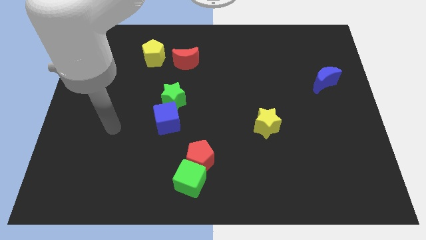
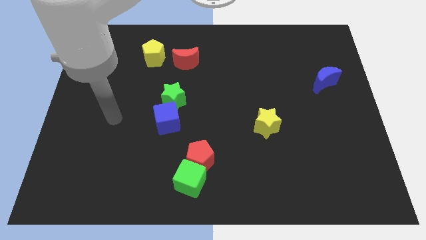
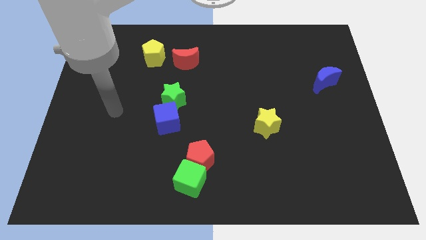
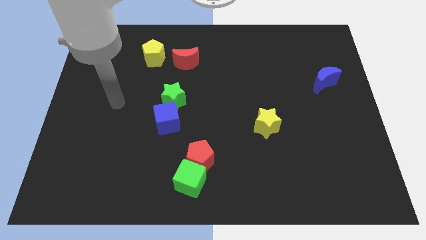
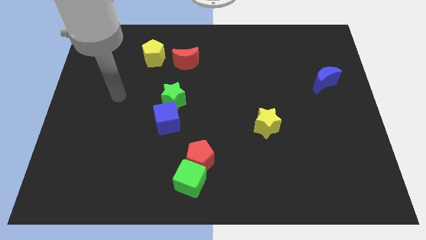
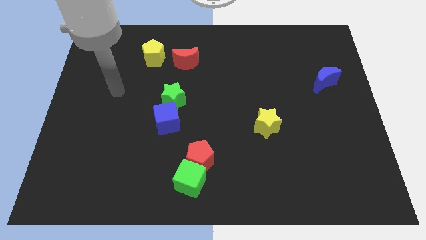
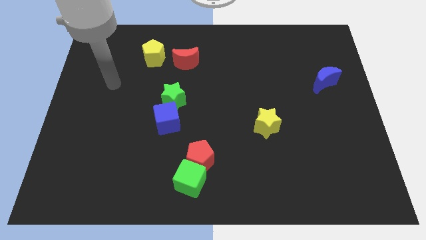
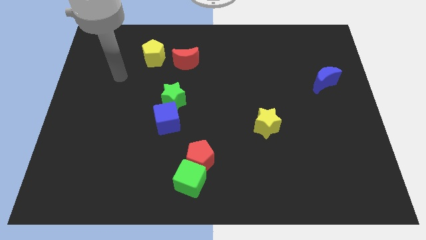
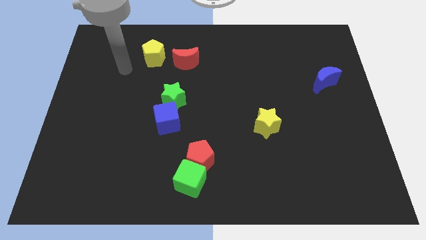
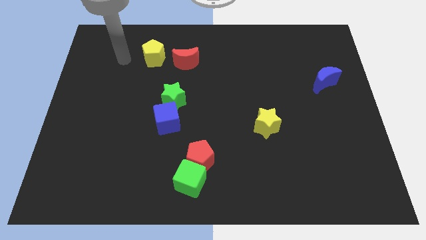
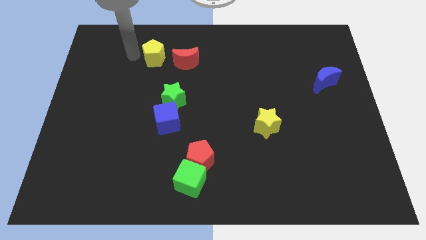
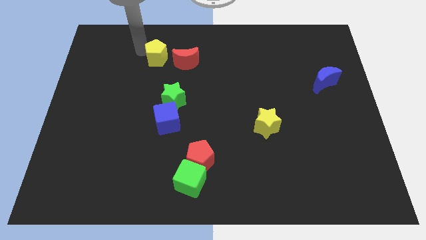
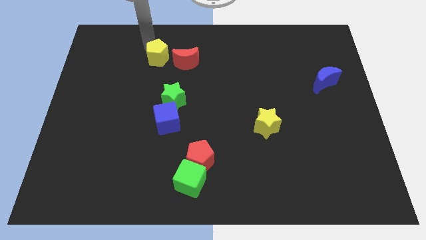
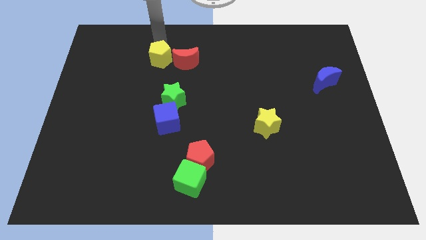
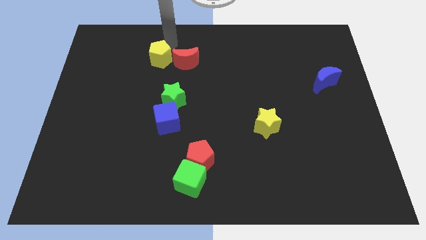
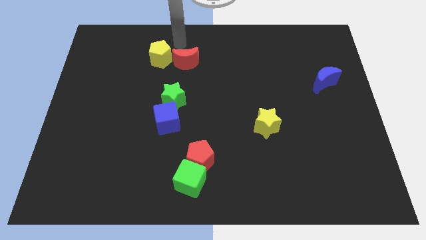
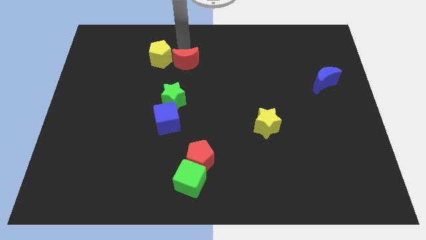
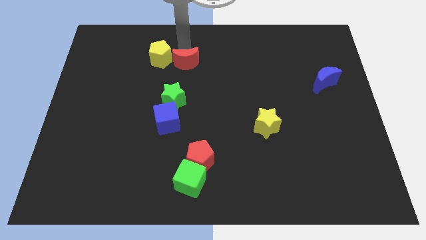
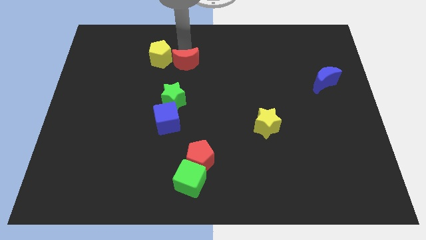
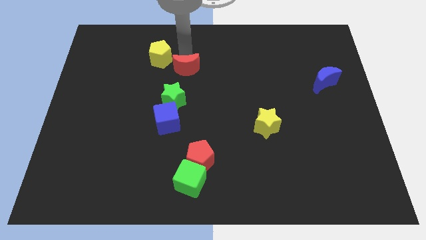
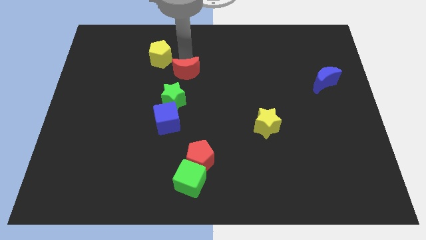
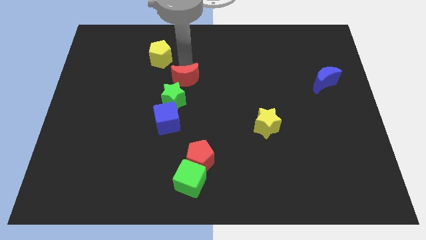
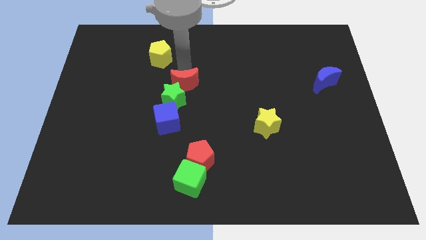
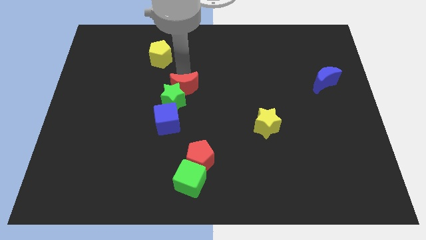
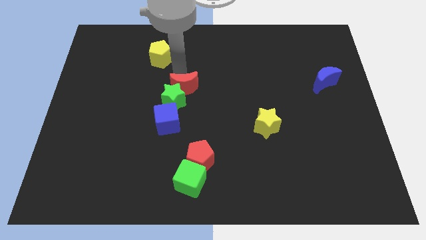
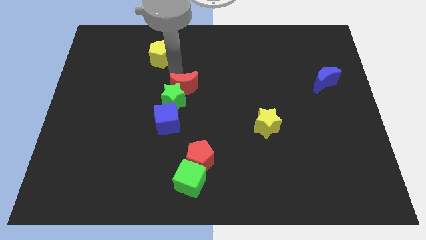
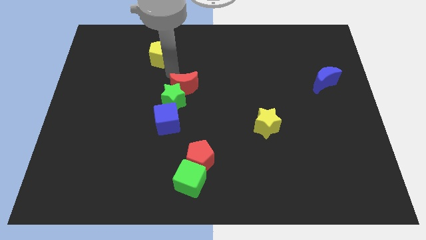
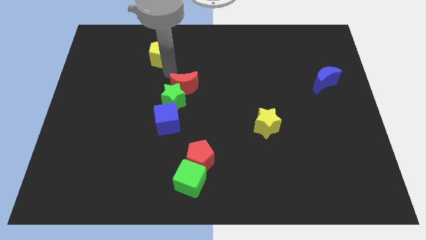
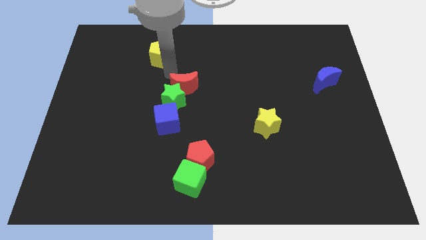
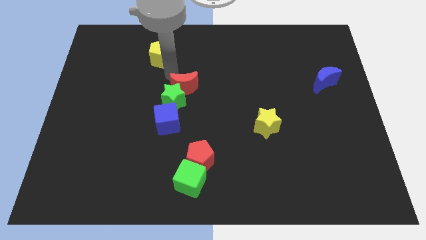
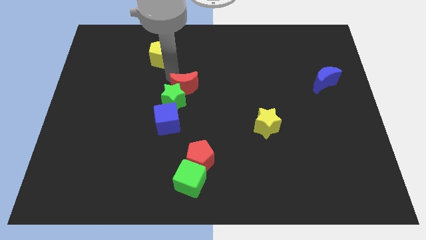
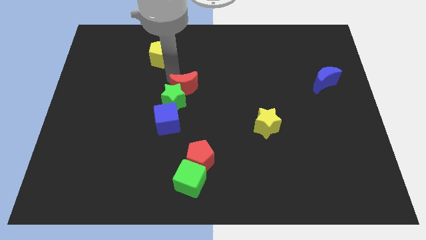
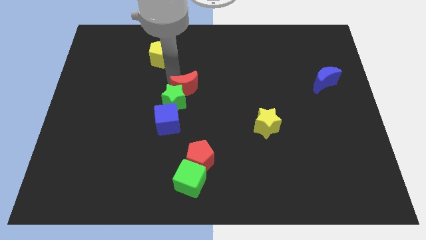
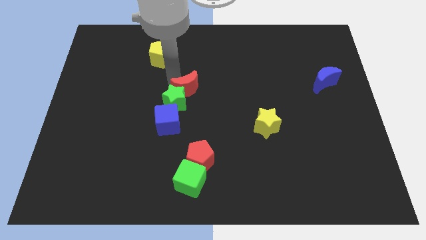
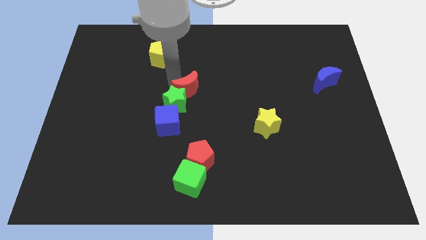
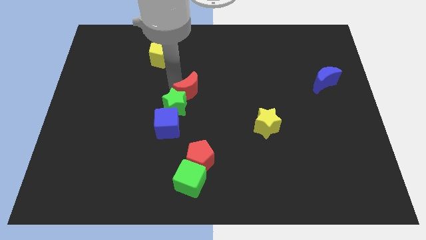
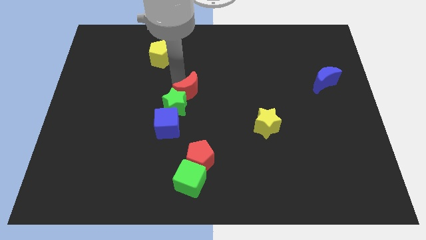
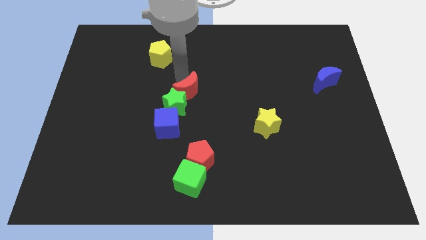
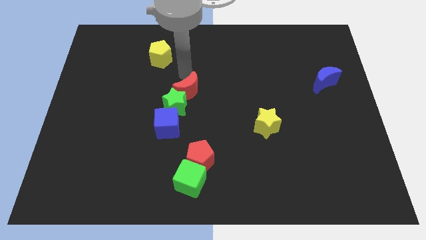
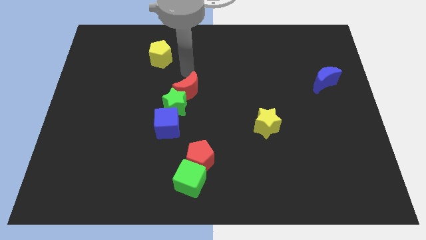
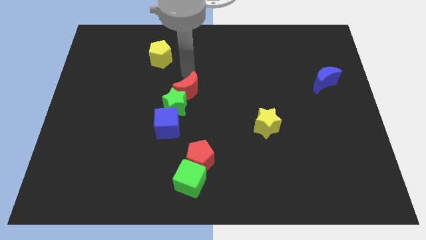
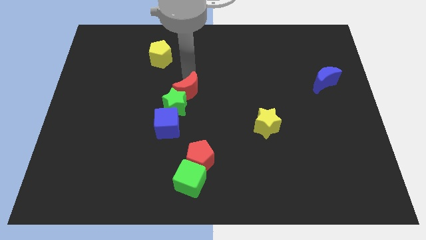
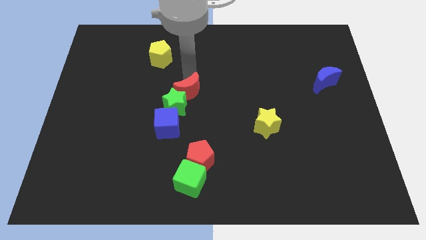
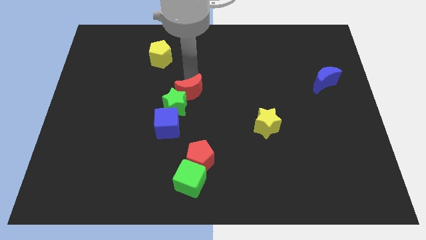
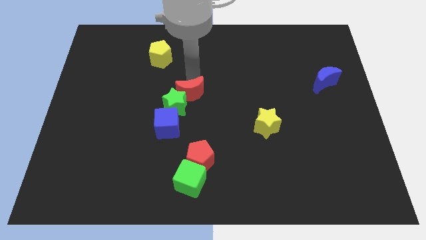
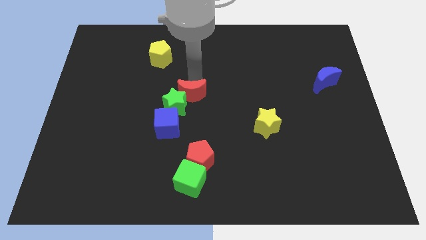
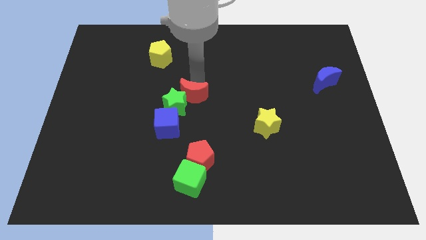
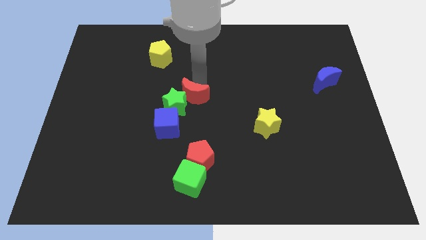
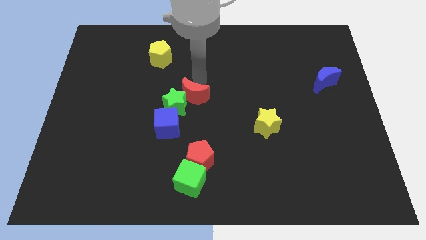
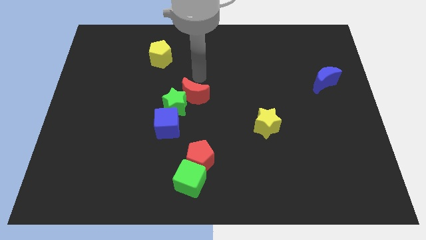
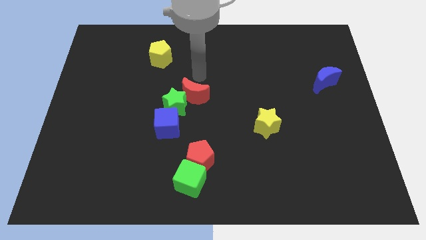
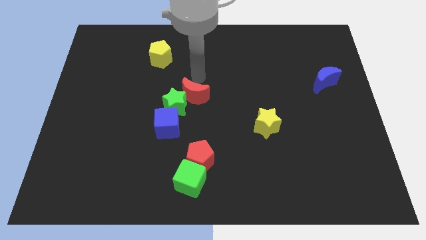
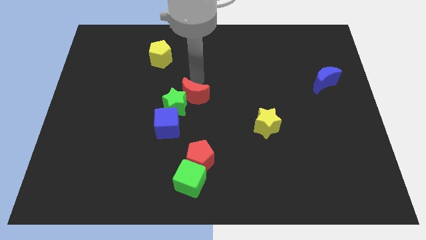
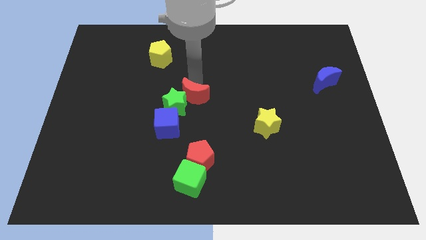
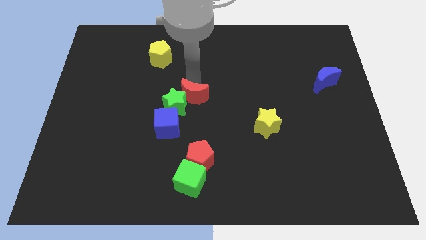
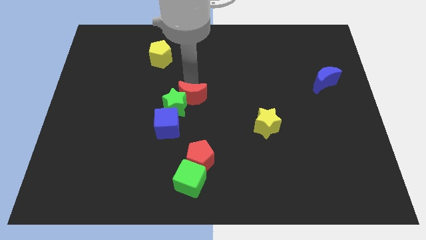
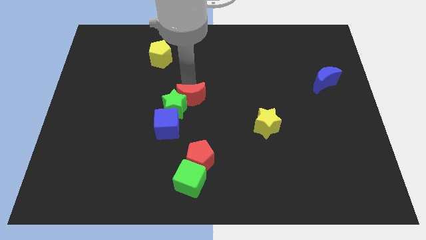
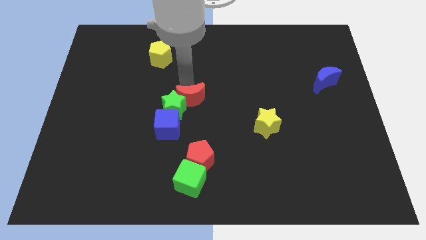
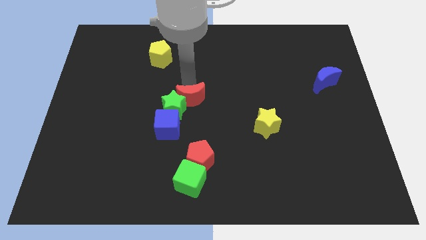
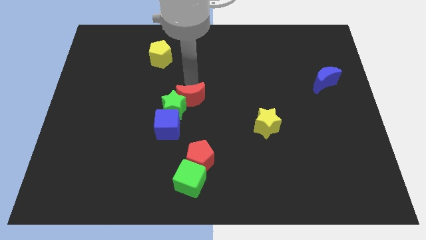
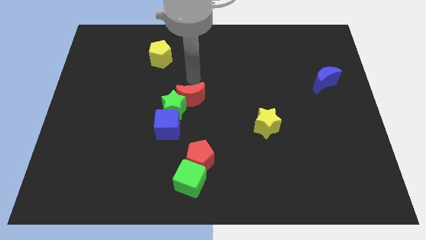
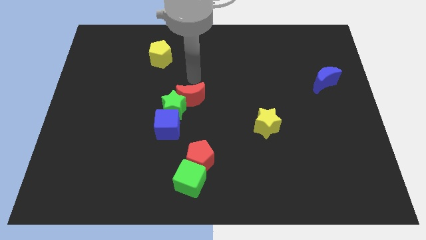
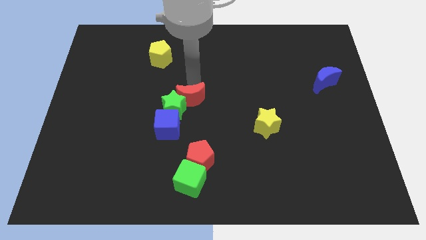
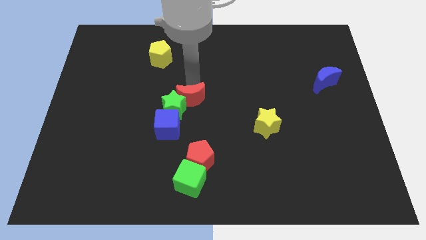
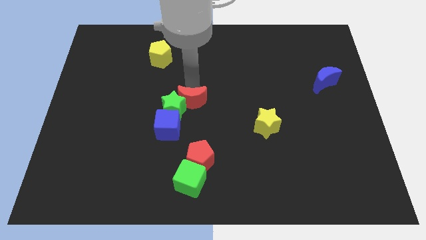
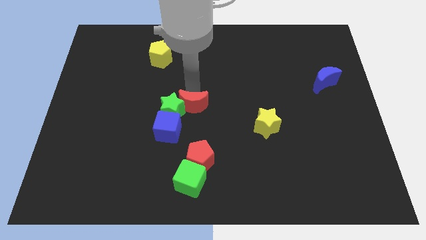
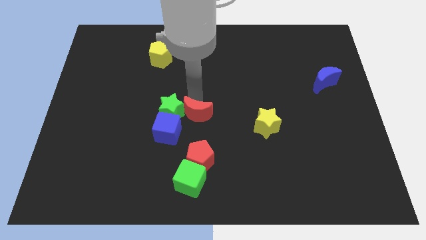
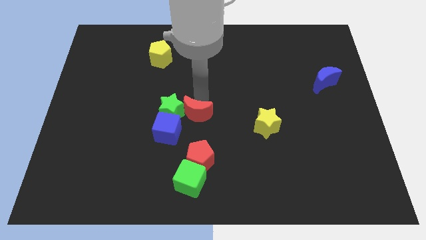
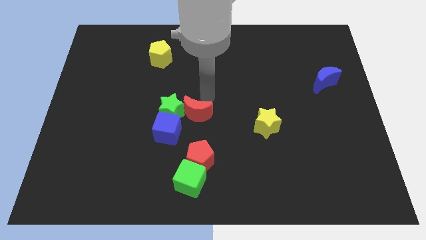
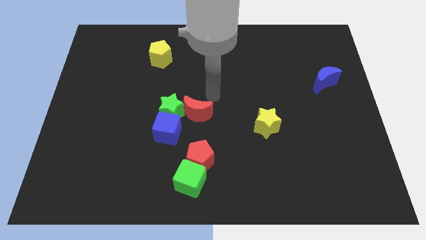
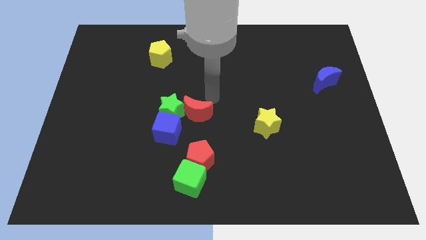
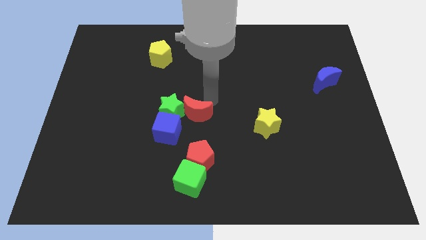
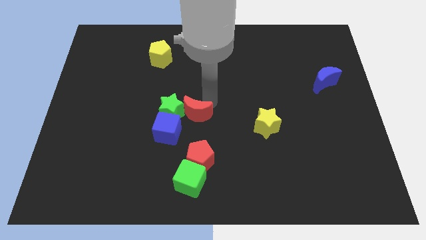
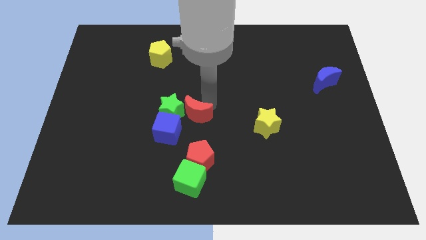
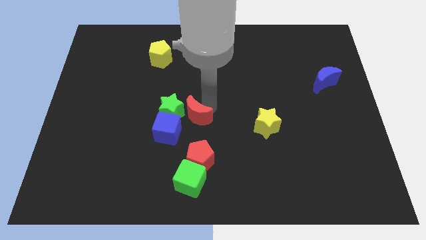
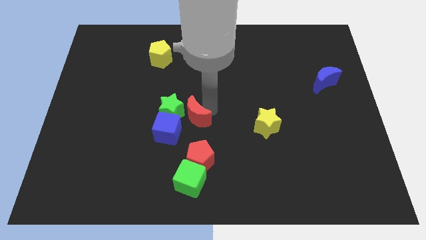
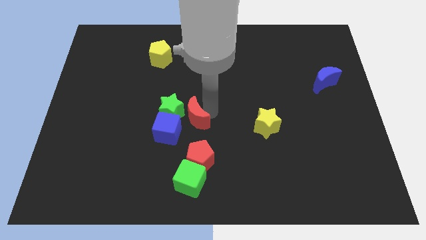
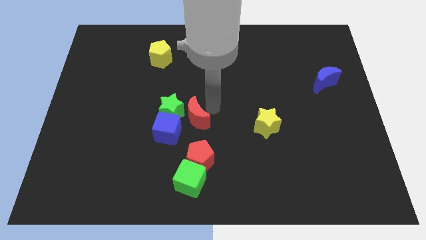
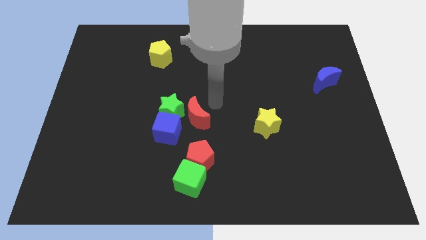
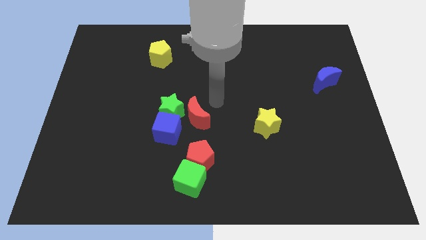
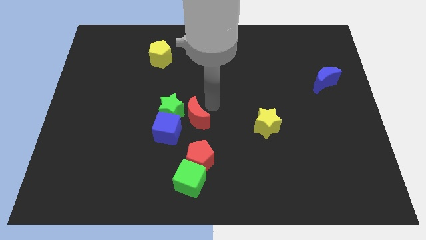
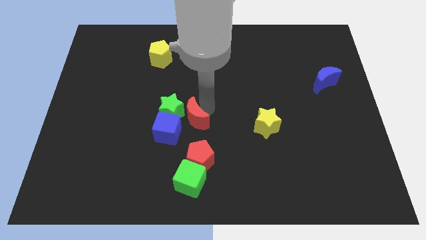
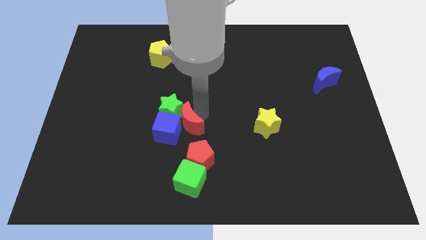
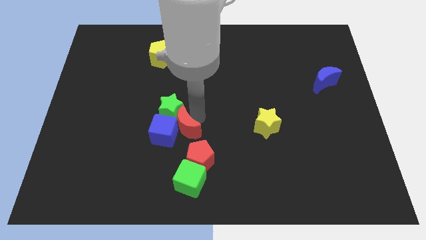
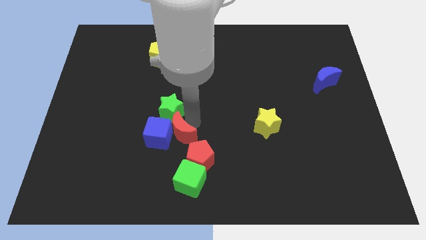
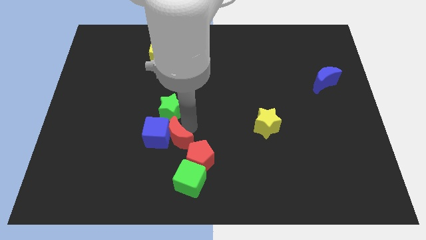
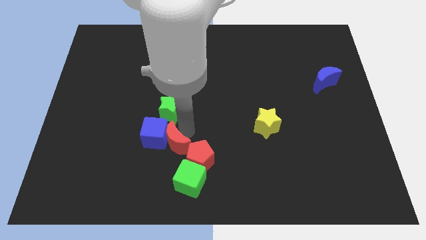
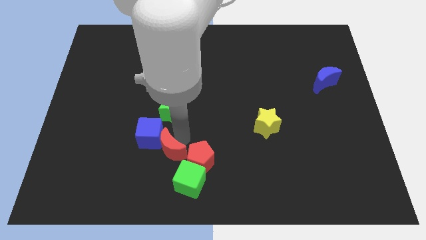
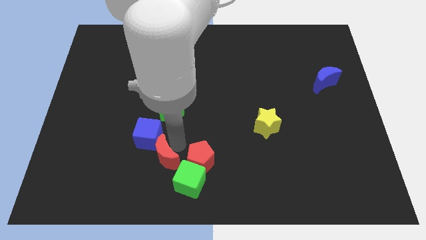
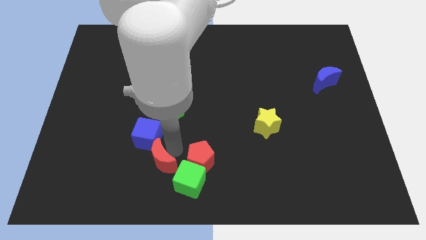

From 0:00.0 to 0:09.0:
put the red moon to the left side of the green cube
